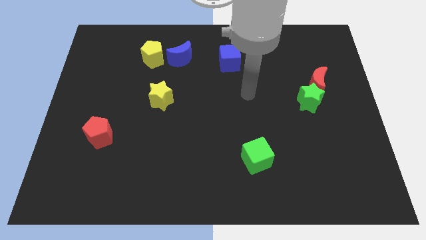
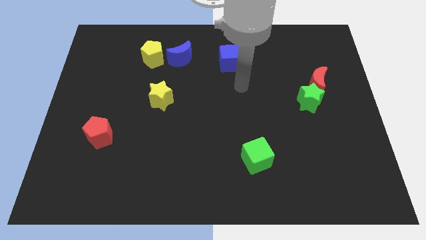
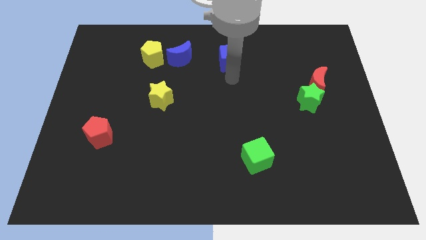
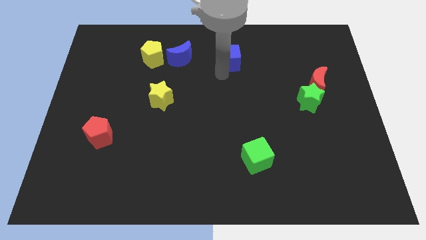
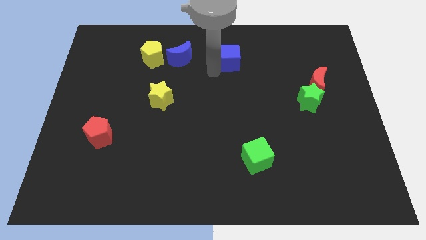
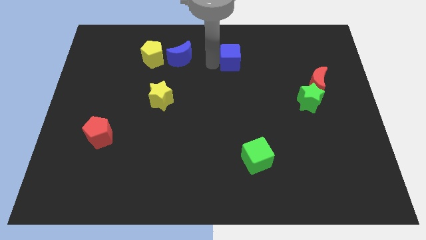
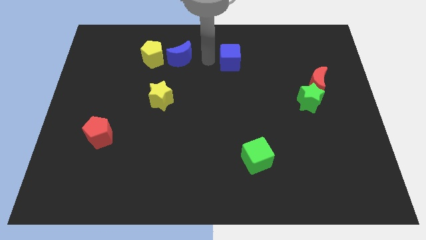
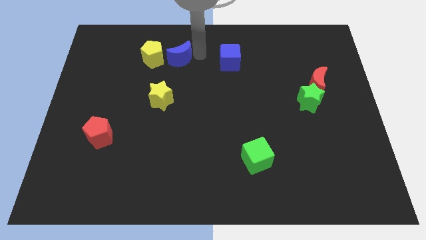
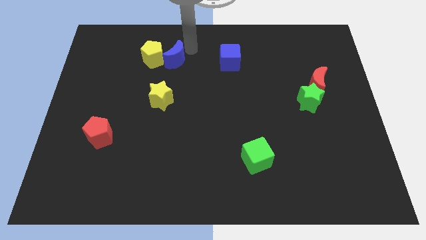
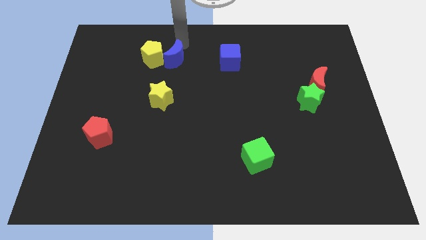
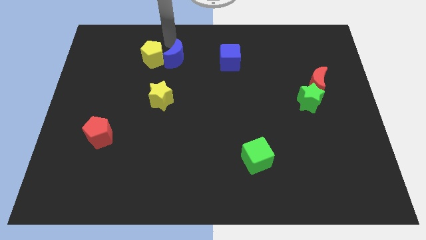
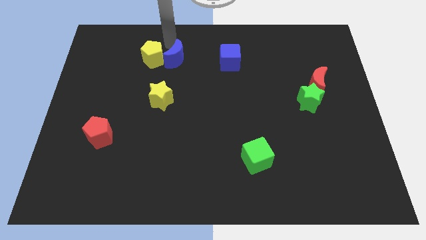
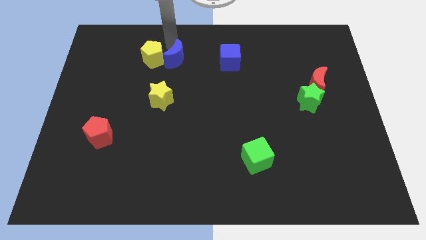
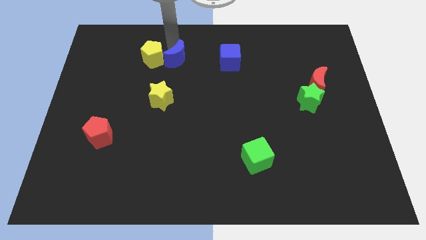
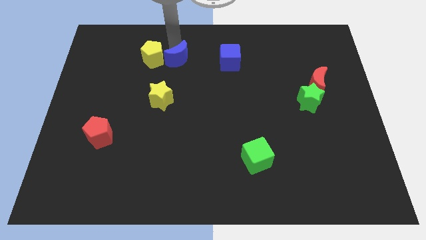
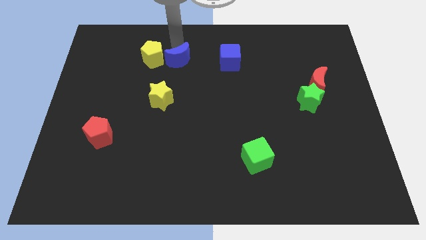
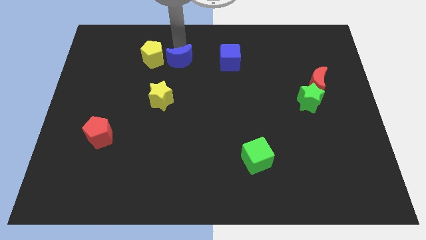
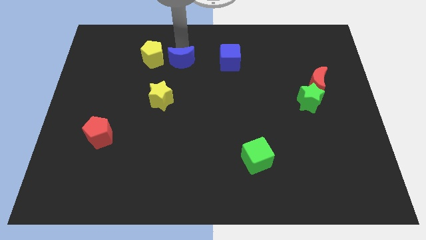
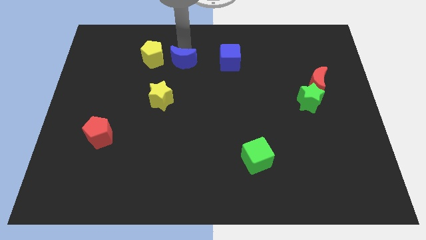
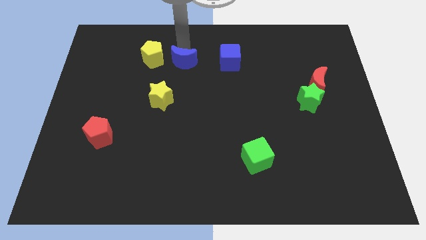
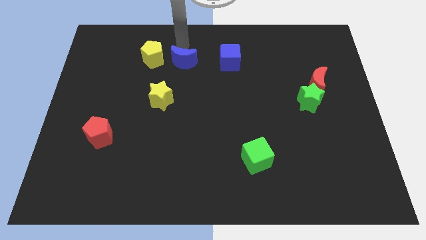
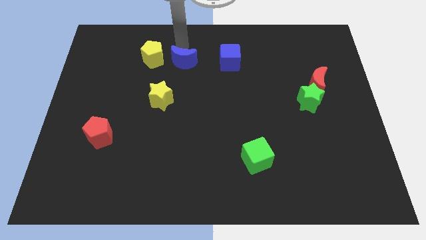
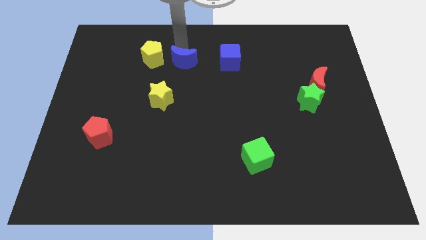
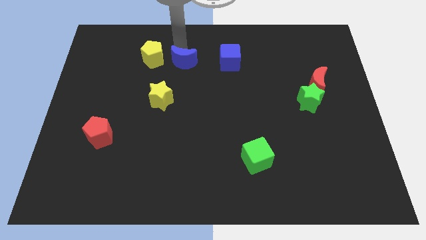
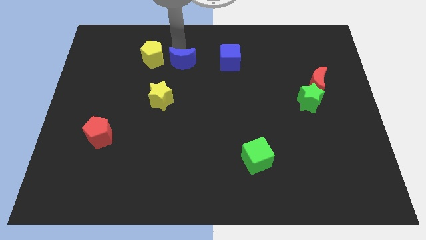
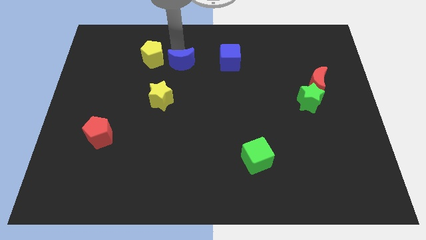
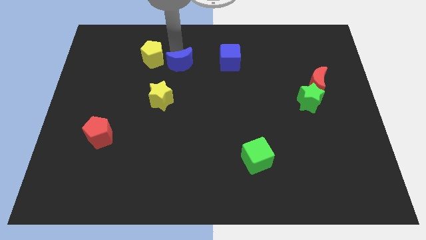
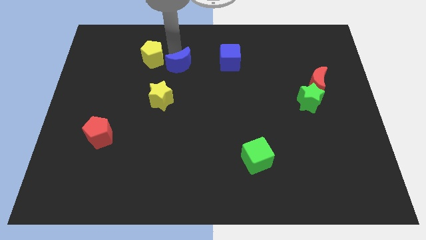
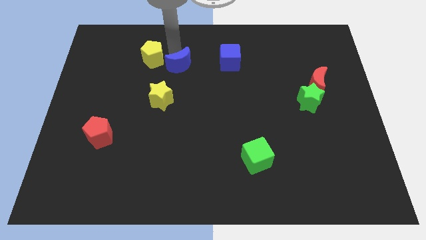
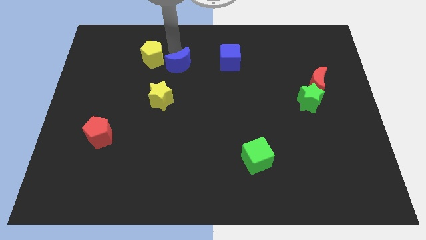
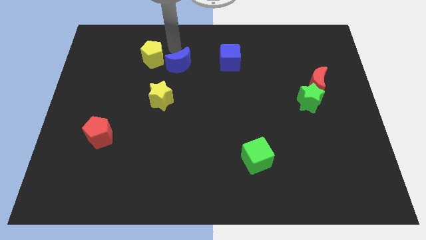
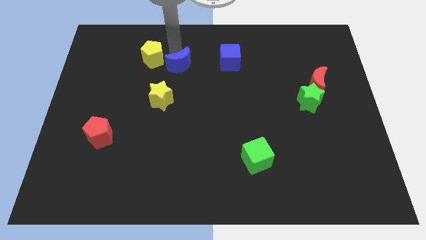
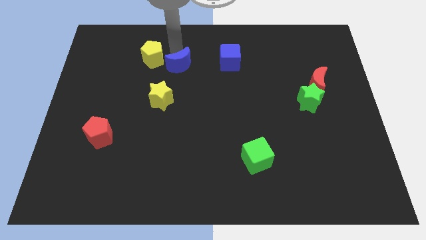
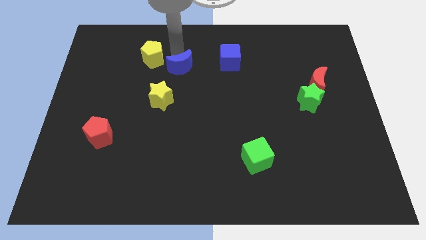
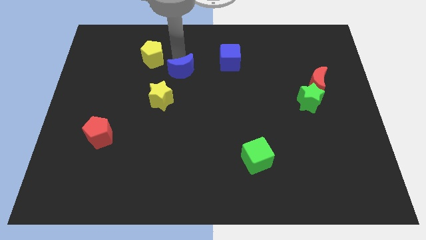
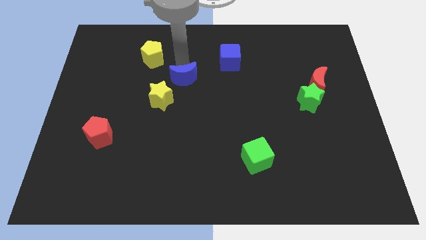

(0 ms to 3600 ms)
move the blue moon downwards a little

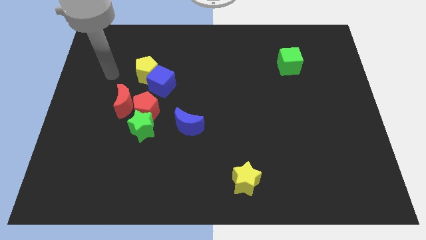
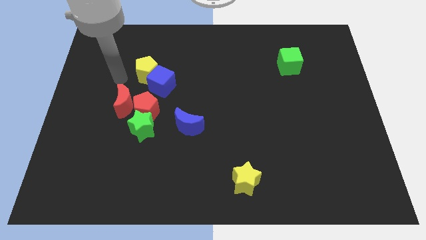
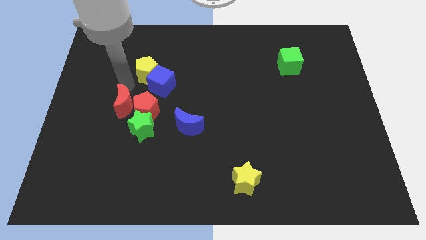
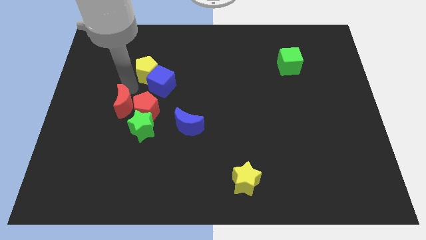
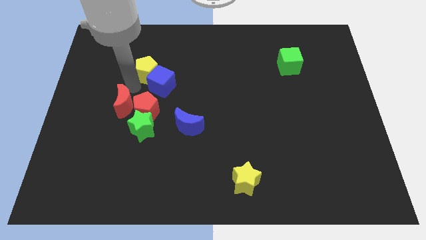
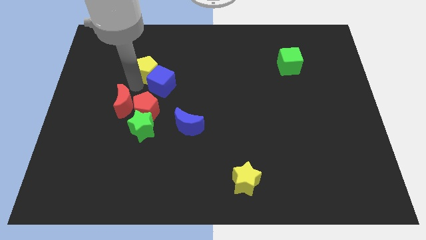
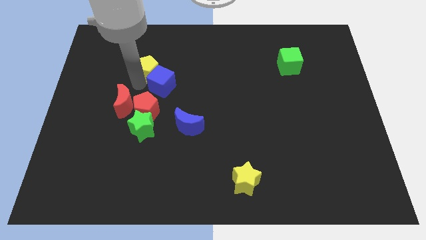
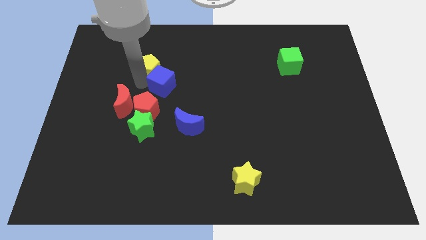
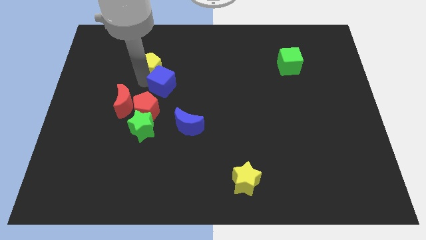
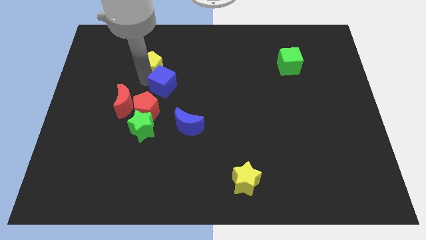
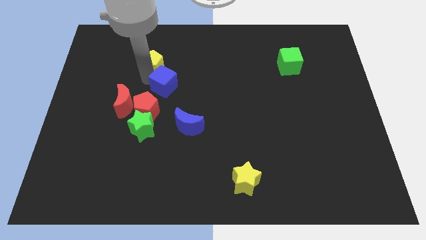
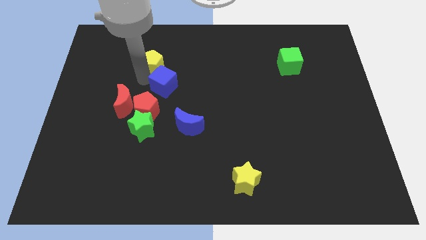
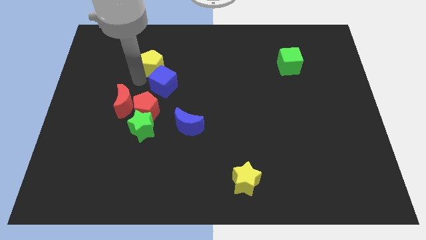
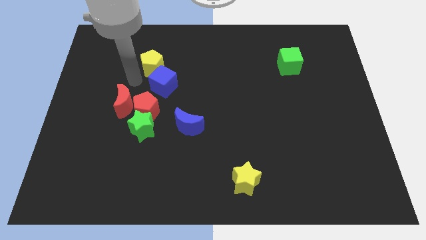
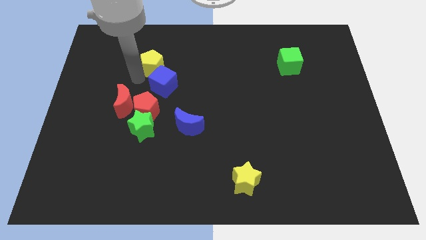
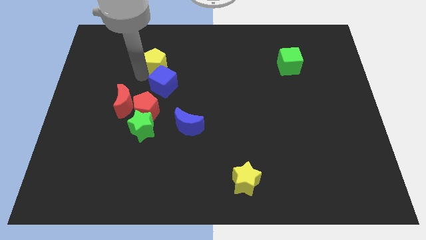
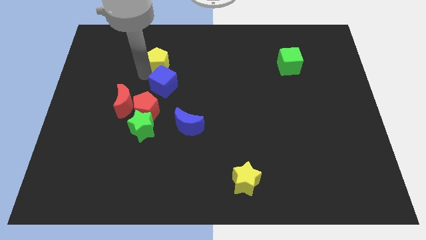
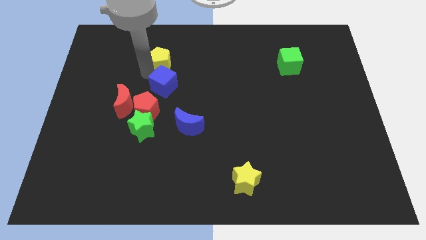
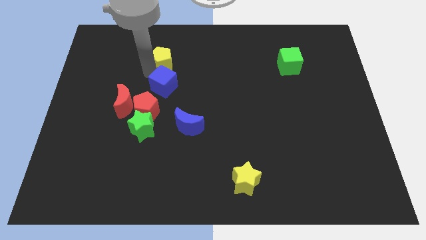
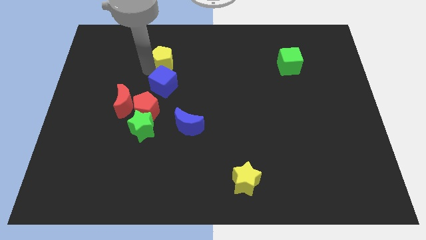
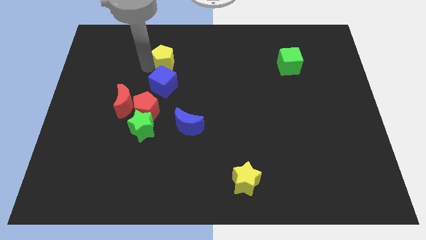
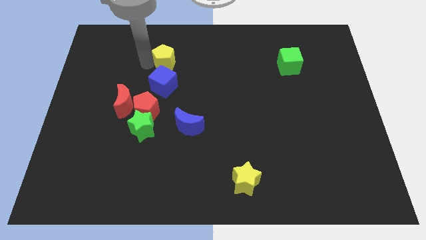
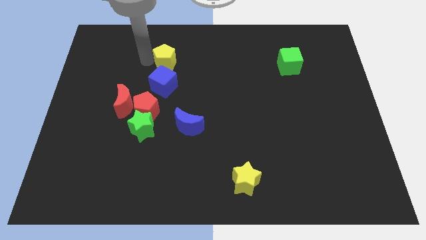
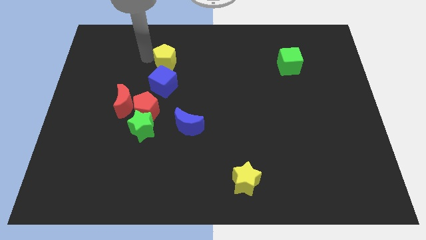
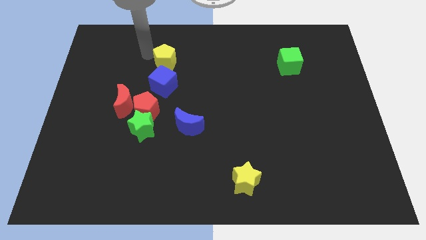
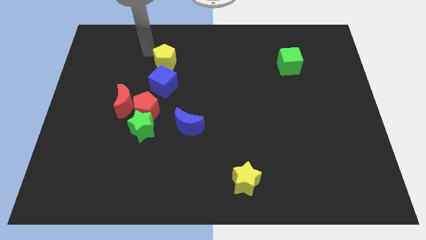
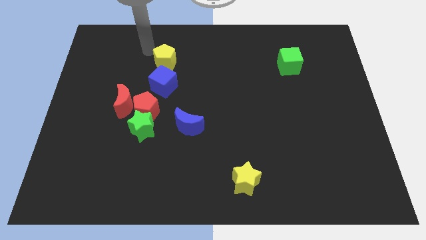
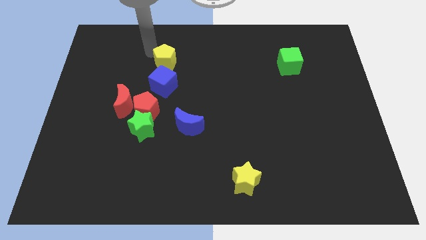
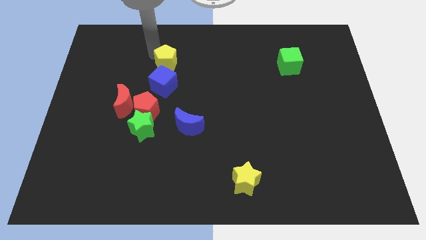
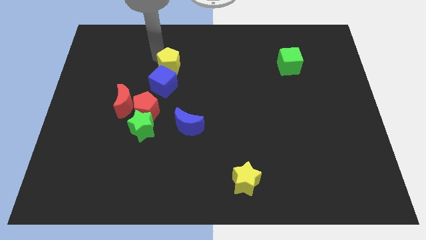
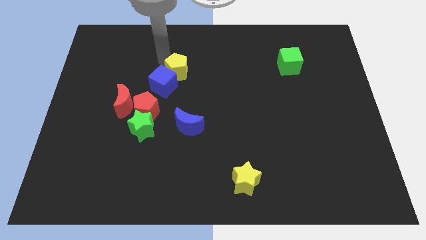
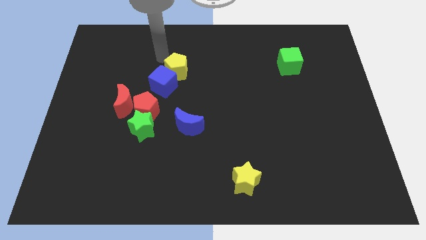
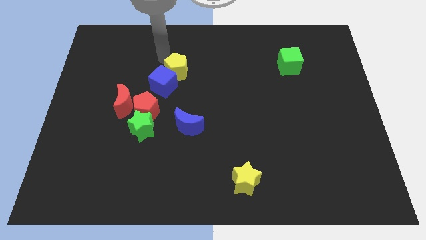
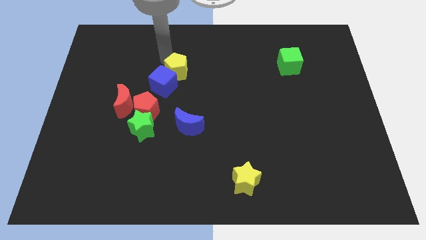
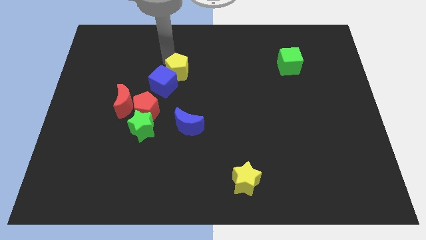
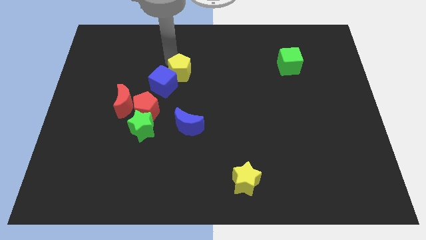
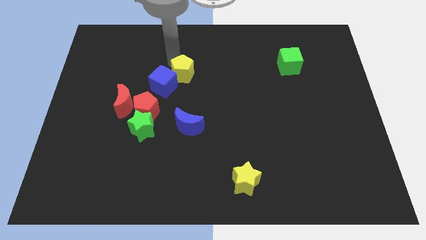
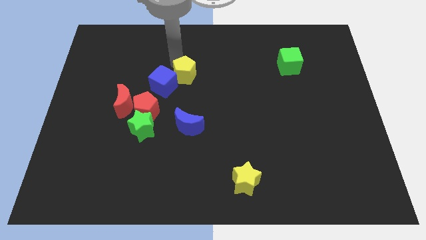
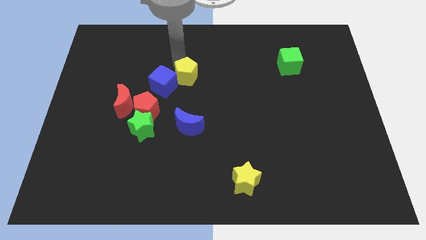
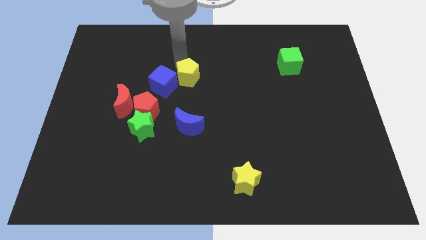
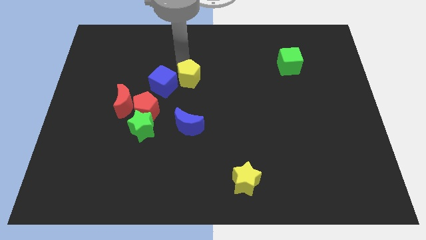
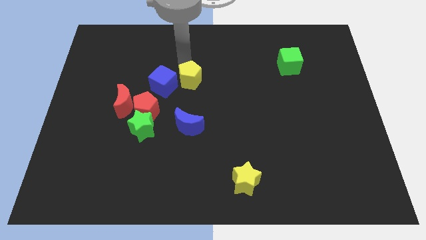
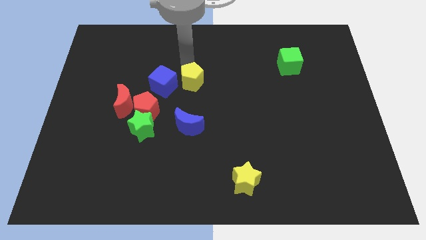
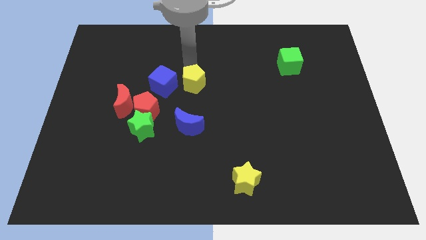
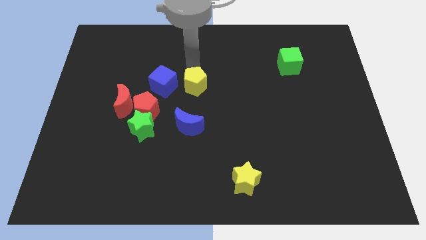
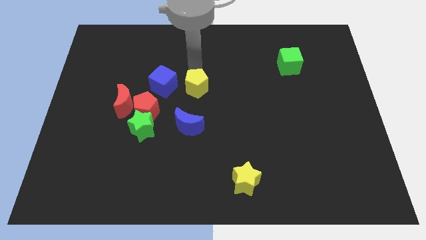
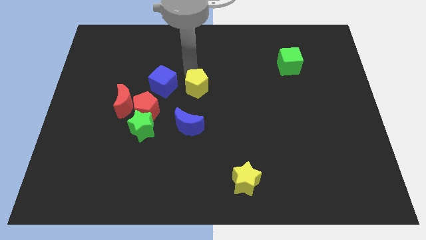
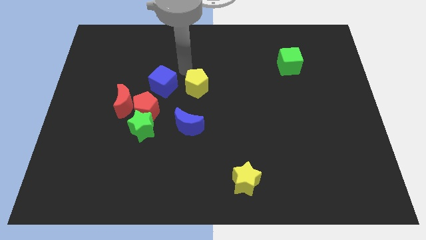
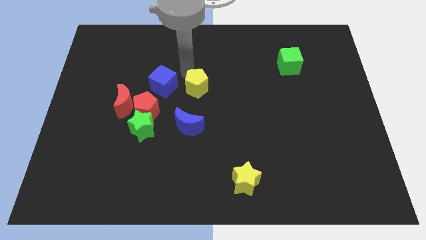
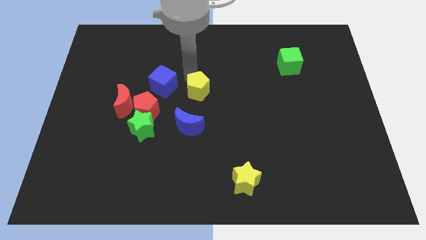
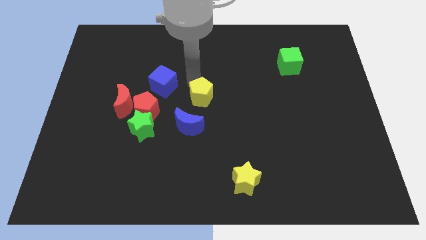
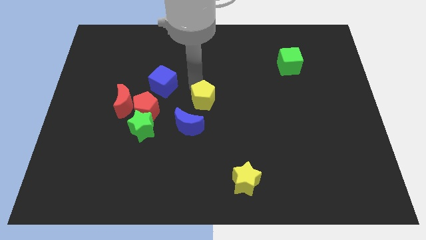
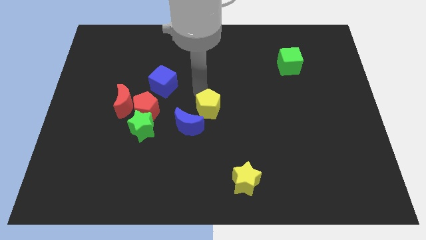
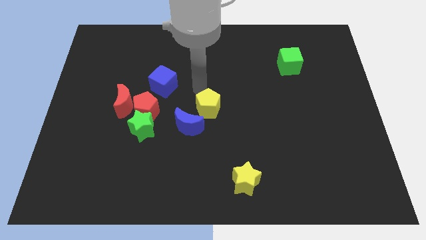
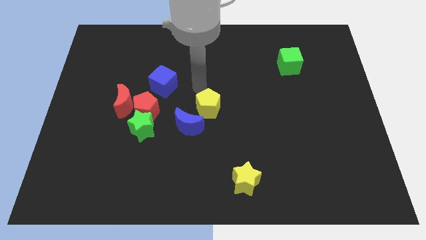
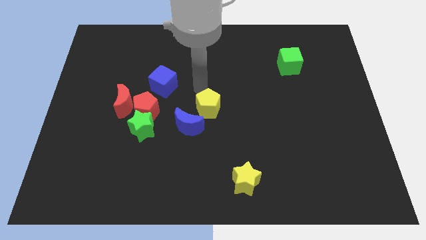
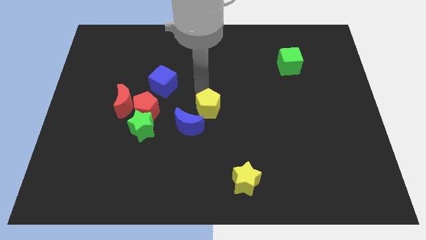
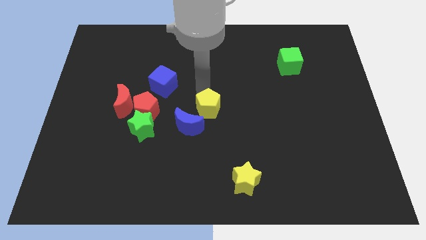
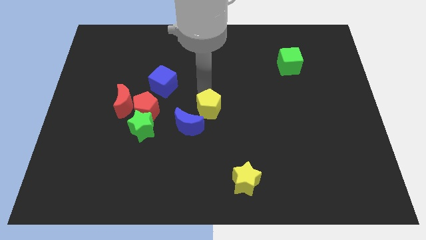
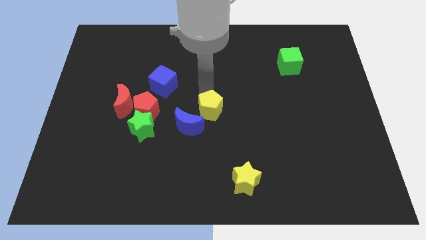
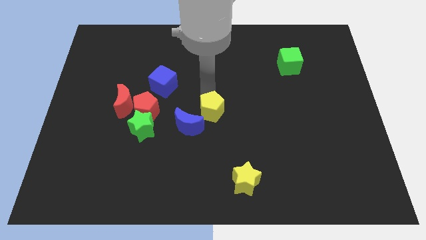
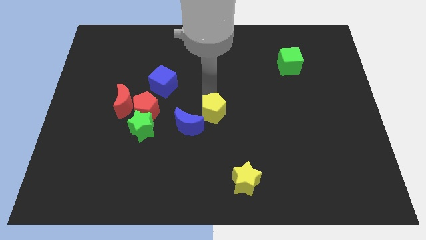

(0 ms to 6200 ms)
push the yellow pentagon downwards and to the right diagonally
